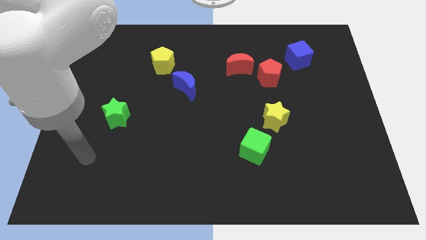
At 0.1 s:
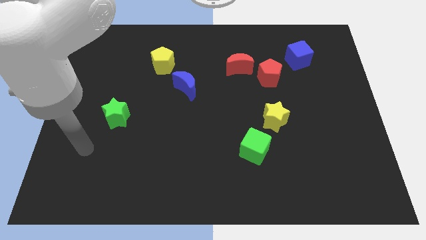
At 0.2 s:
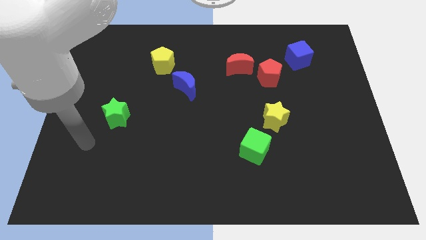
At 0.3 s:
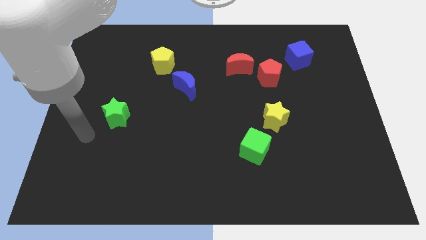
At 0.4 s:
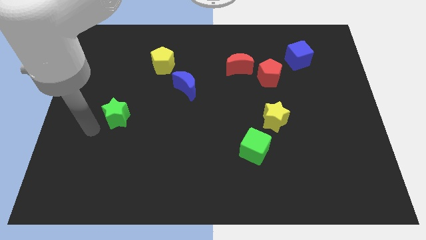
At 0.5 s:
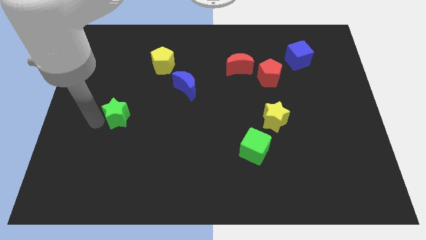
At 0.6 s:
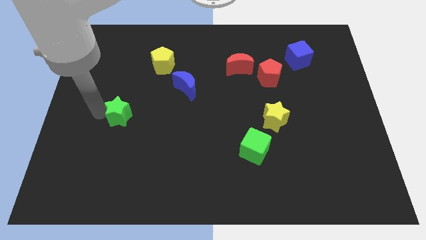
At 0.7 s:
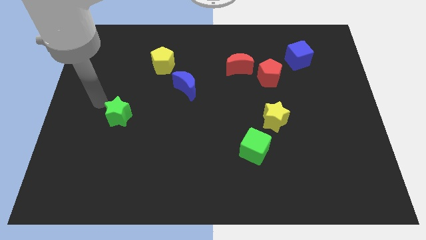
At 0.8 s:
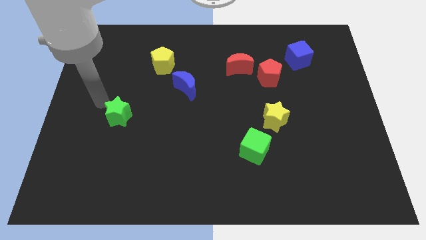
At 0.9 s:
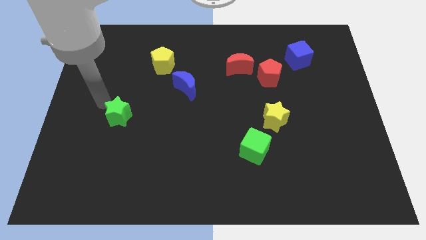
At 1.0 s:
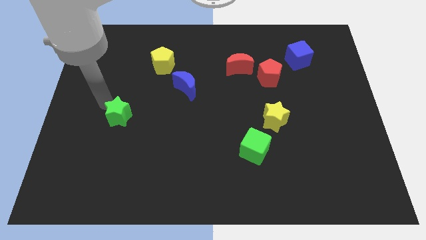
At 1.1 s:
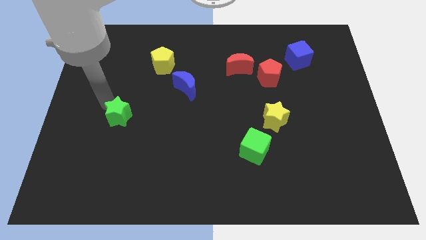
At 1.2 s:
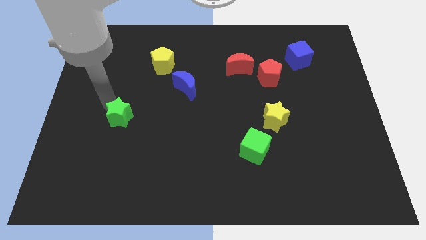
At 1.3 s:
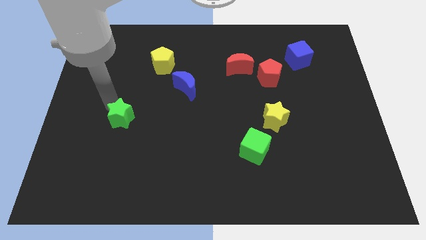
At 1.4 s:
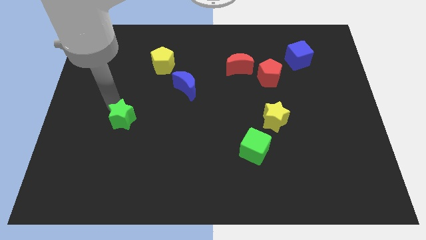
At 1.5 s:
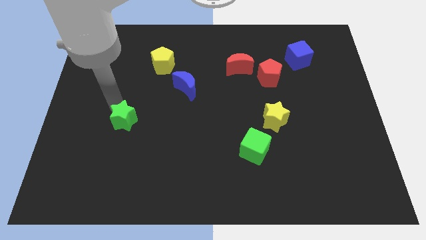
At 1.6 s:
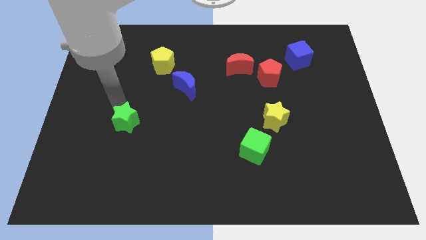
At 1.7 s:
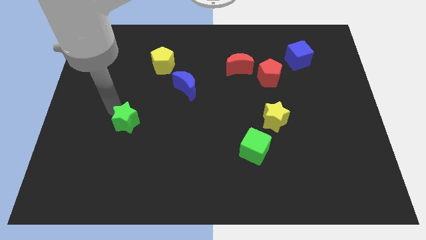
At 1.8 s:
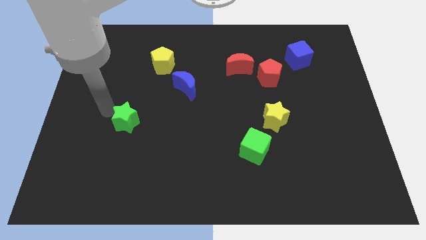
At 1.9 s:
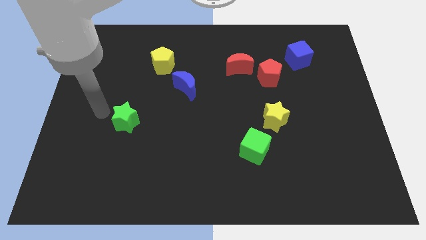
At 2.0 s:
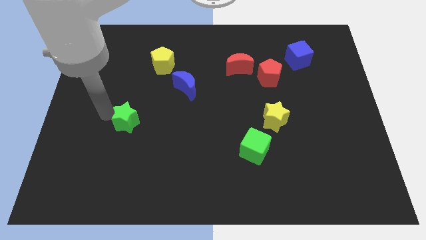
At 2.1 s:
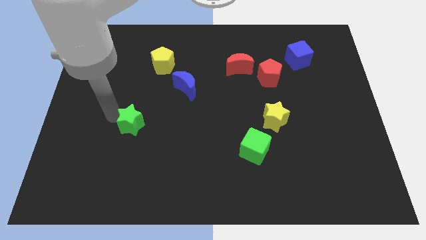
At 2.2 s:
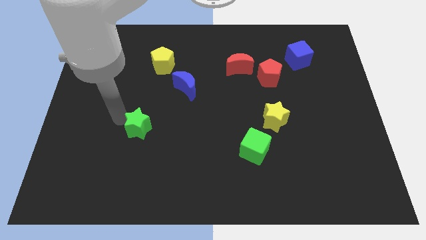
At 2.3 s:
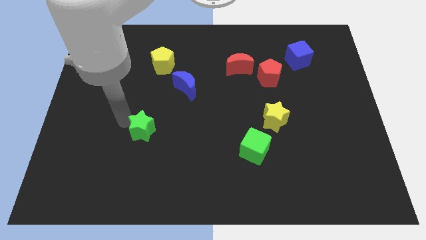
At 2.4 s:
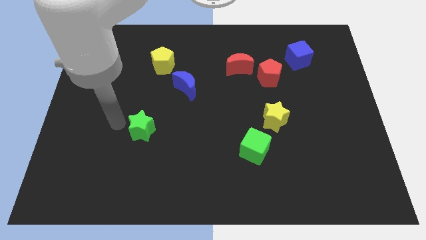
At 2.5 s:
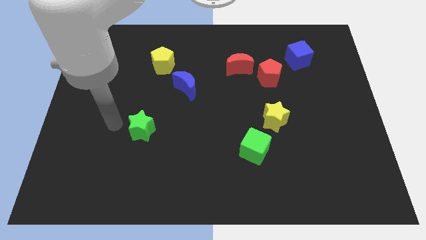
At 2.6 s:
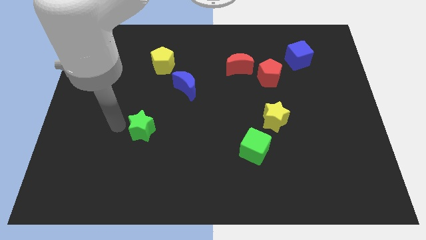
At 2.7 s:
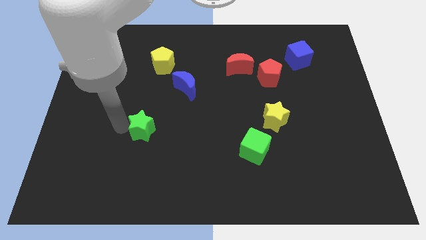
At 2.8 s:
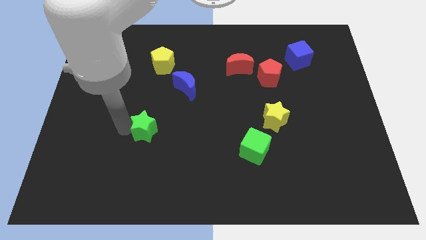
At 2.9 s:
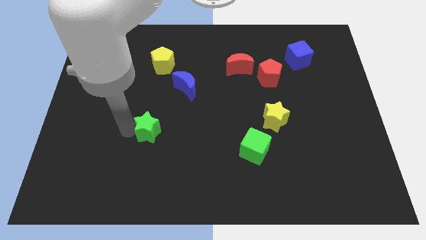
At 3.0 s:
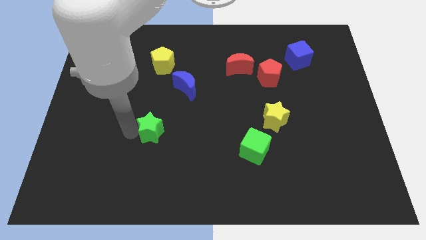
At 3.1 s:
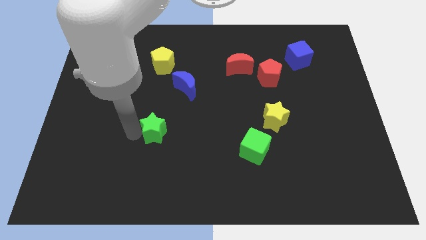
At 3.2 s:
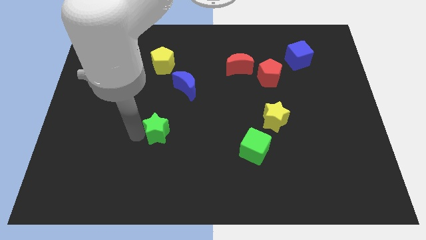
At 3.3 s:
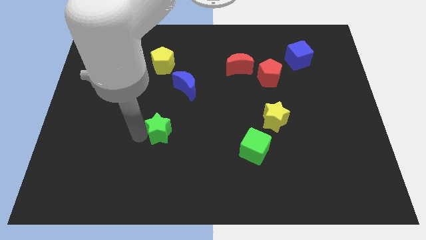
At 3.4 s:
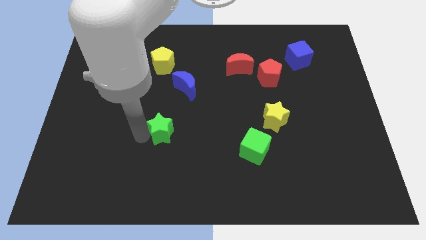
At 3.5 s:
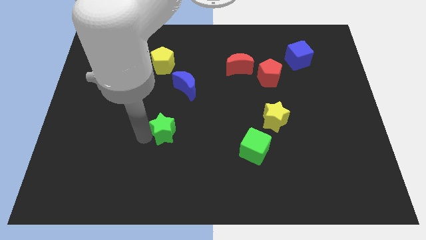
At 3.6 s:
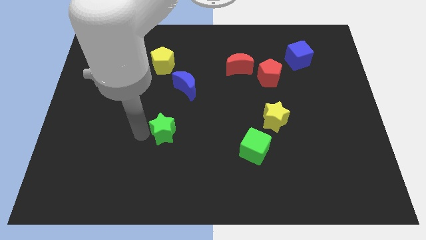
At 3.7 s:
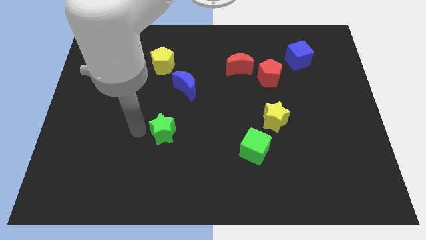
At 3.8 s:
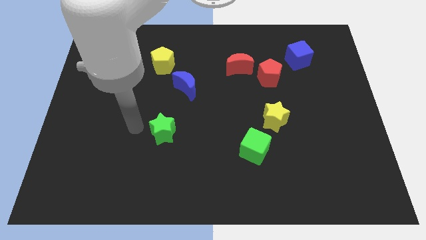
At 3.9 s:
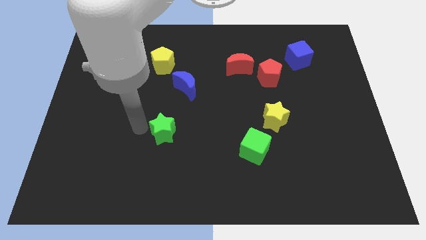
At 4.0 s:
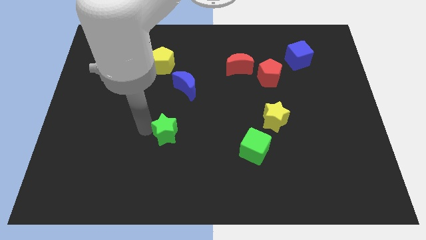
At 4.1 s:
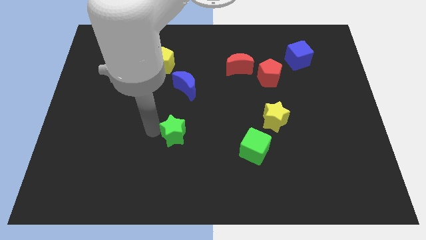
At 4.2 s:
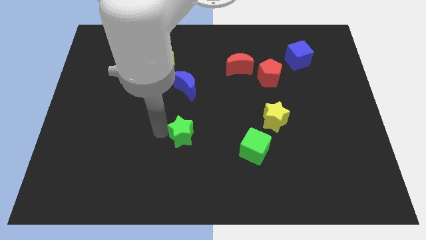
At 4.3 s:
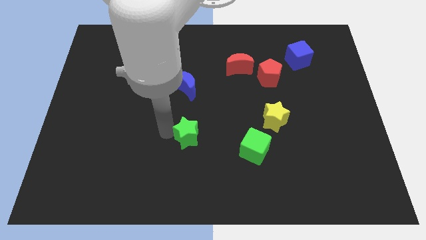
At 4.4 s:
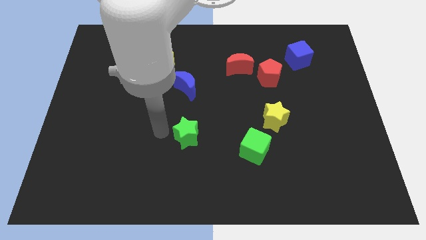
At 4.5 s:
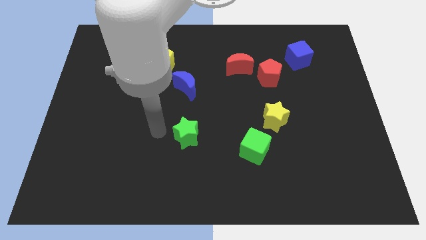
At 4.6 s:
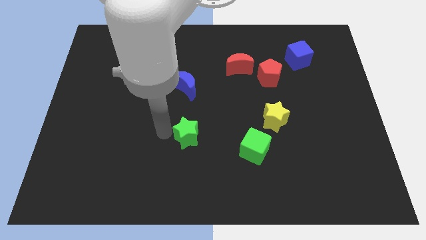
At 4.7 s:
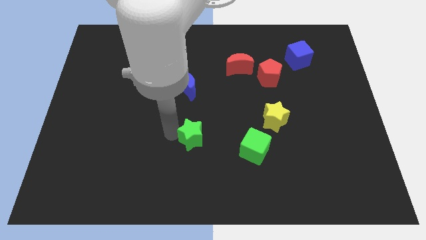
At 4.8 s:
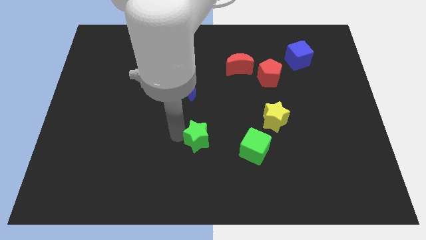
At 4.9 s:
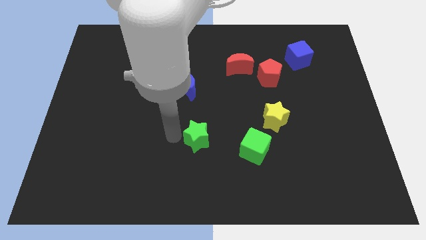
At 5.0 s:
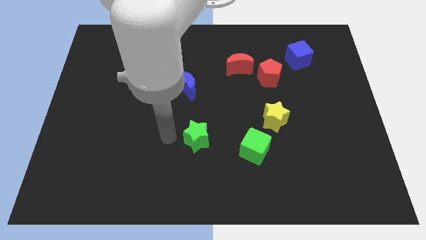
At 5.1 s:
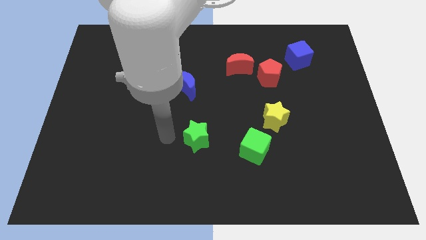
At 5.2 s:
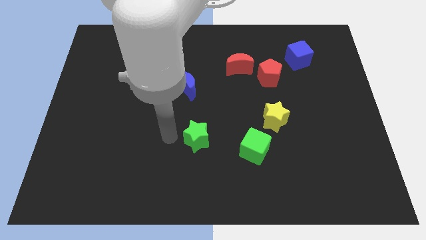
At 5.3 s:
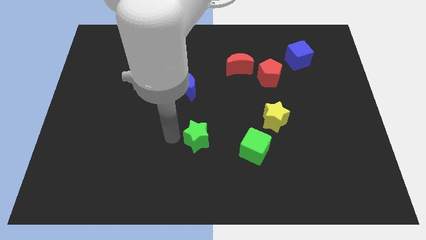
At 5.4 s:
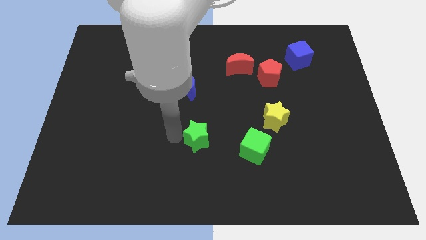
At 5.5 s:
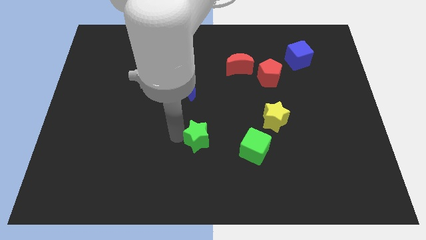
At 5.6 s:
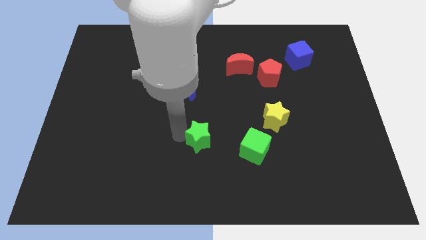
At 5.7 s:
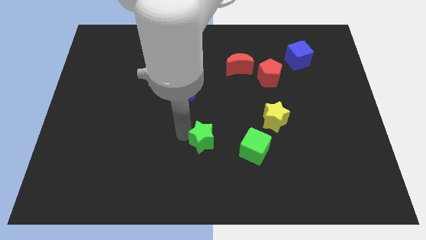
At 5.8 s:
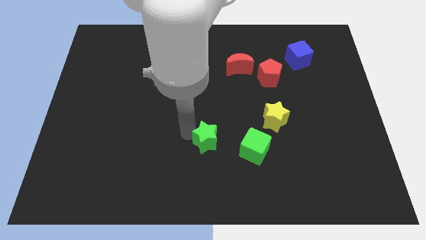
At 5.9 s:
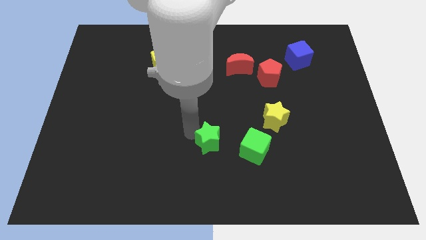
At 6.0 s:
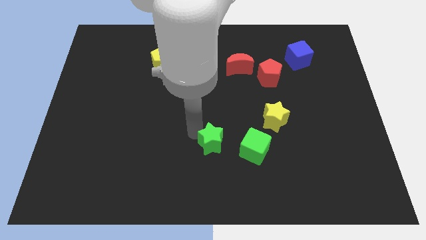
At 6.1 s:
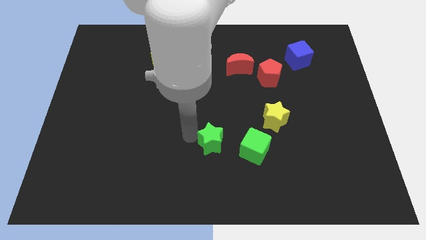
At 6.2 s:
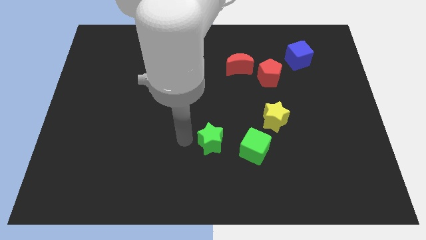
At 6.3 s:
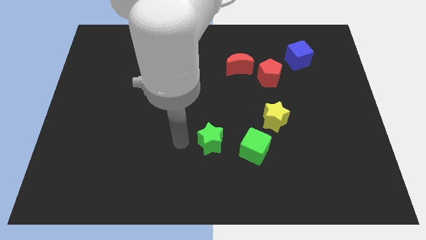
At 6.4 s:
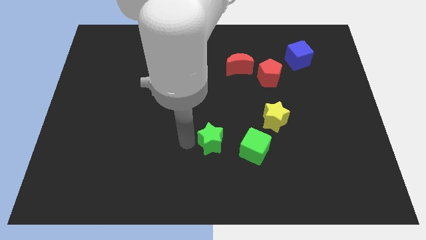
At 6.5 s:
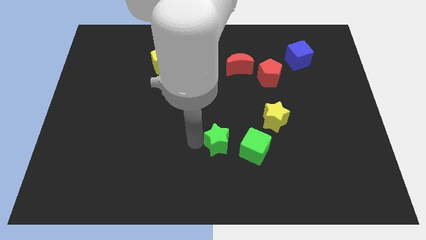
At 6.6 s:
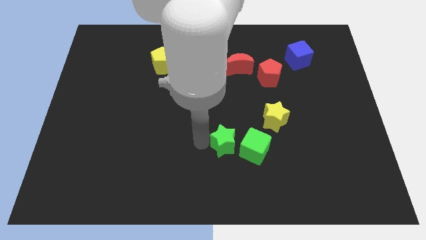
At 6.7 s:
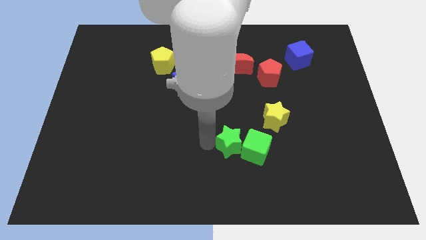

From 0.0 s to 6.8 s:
move the green star next to the green cube

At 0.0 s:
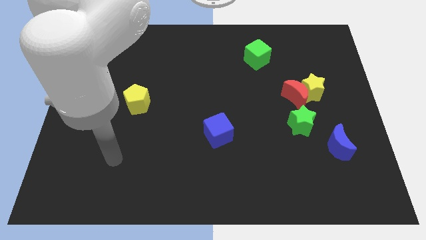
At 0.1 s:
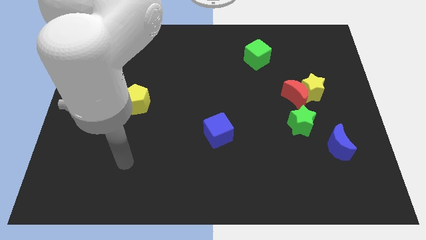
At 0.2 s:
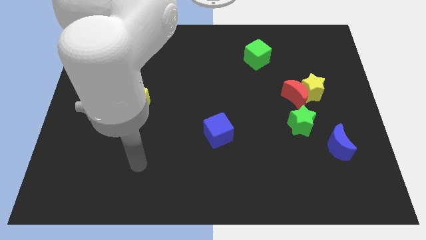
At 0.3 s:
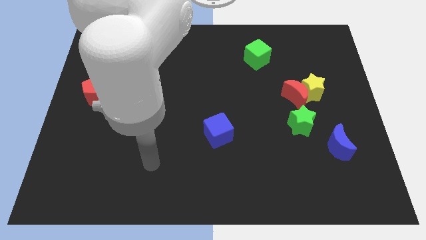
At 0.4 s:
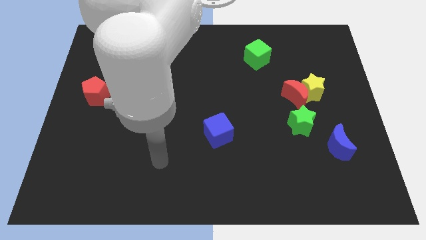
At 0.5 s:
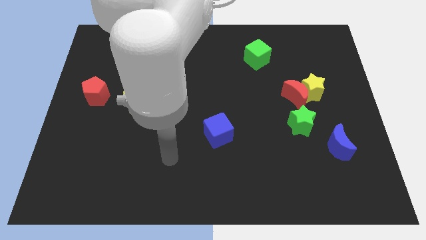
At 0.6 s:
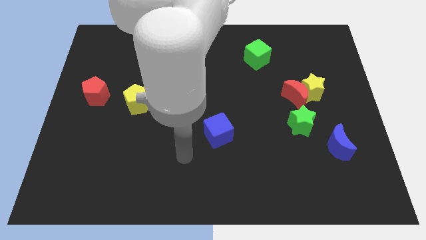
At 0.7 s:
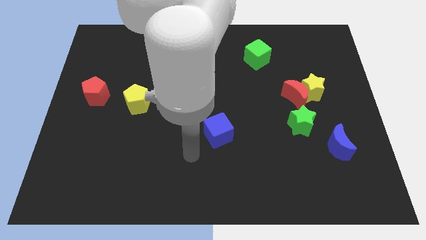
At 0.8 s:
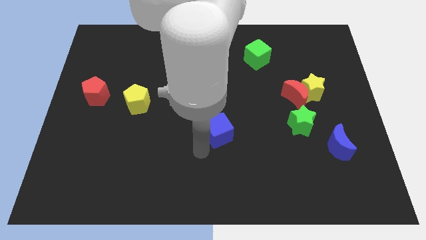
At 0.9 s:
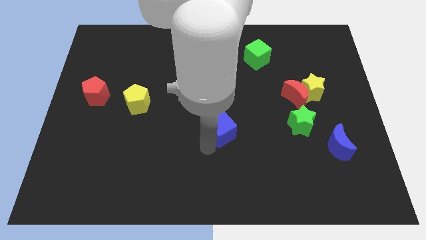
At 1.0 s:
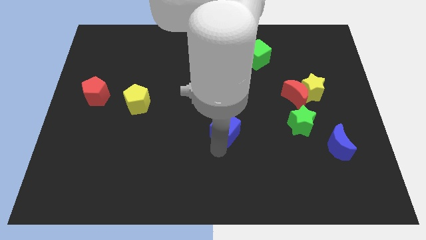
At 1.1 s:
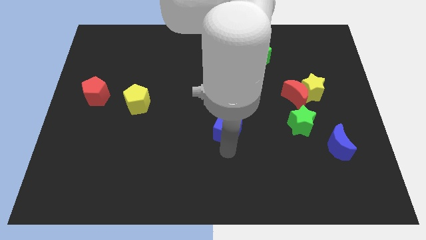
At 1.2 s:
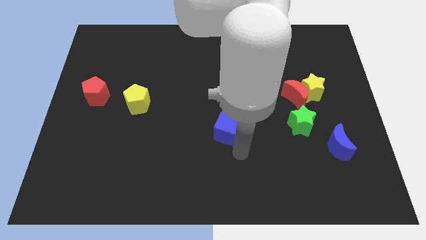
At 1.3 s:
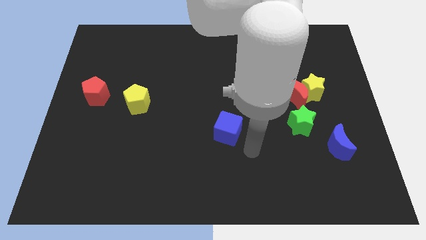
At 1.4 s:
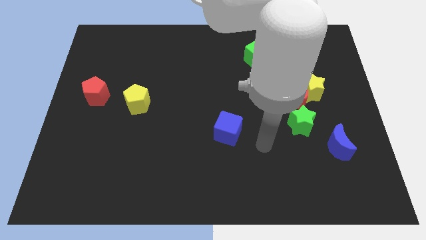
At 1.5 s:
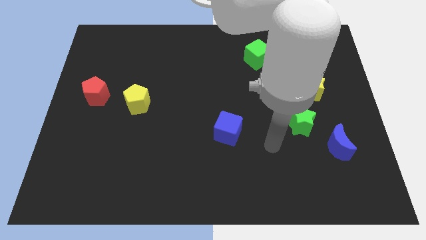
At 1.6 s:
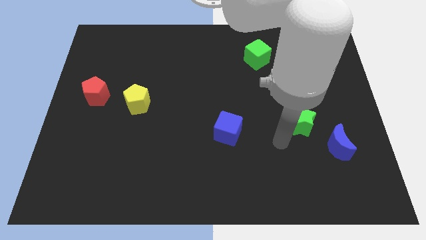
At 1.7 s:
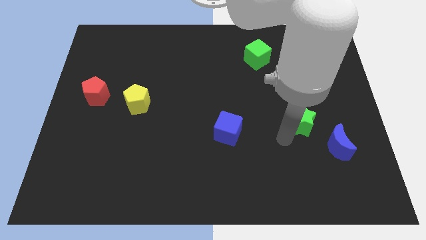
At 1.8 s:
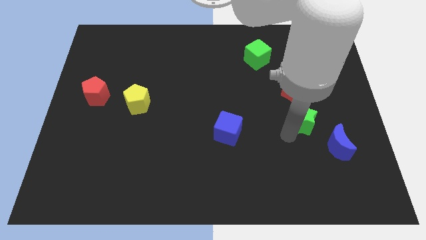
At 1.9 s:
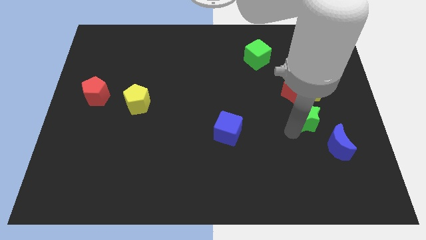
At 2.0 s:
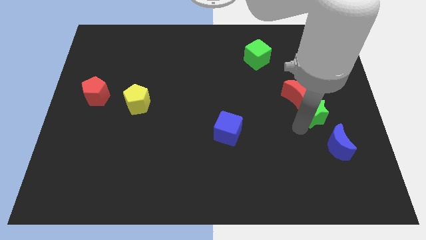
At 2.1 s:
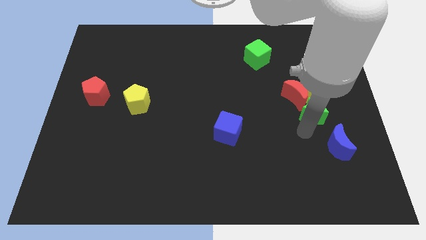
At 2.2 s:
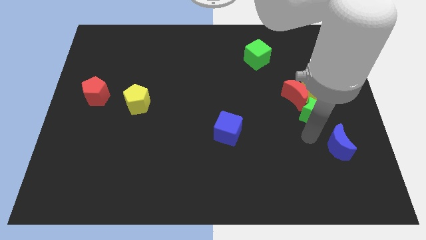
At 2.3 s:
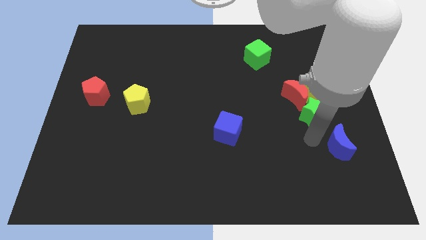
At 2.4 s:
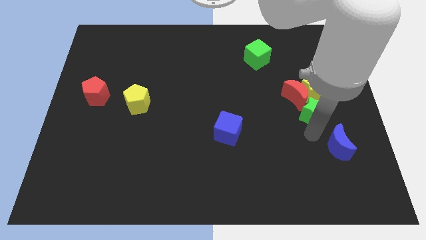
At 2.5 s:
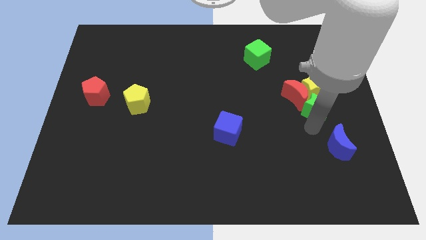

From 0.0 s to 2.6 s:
move the green star close to the yellow star
